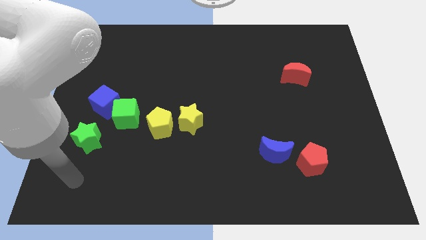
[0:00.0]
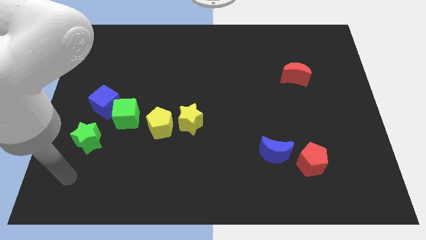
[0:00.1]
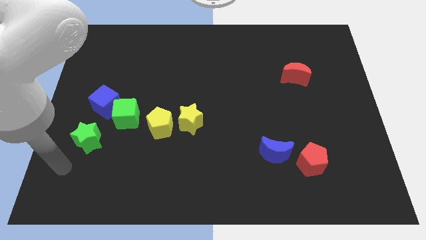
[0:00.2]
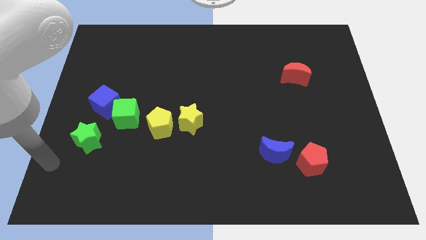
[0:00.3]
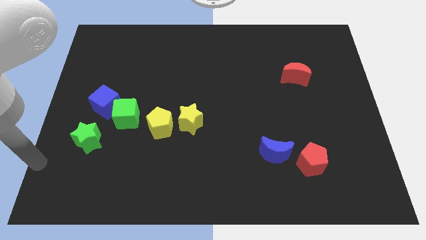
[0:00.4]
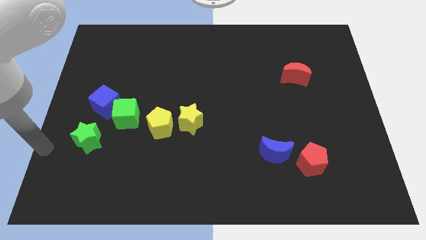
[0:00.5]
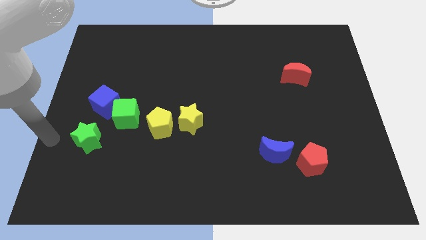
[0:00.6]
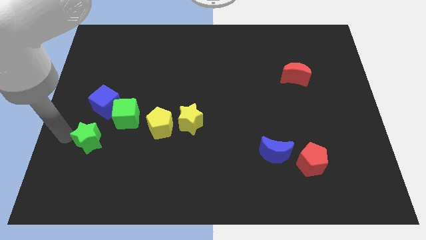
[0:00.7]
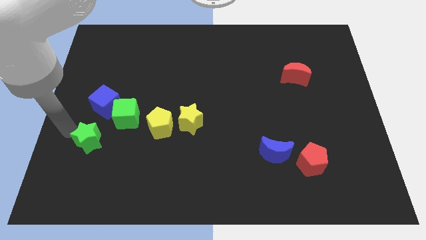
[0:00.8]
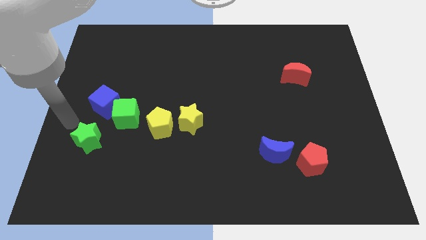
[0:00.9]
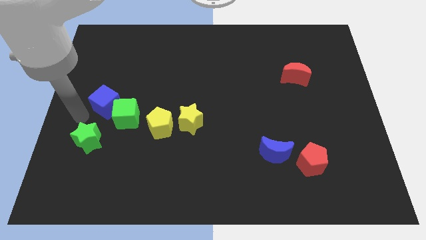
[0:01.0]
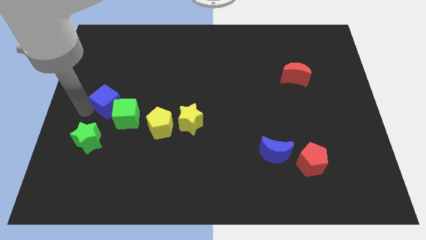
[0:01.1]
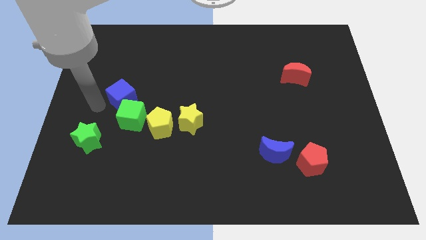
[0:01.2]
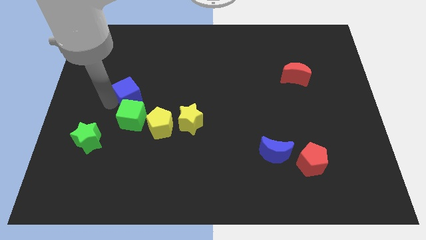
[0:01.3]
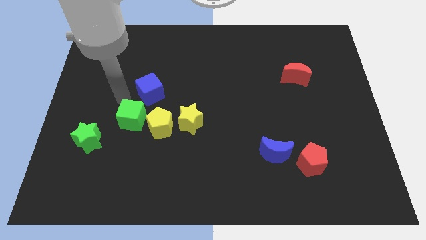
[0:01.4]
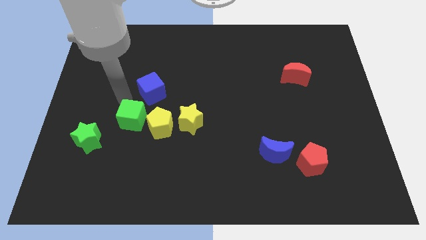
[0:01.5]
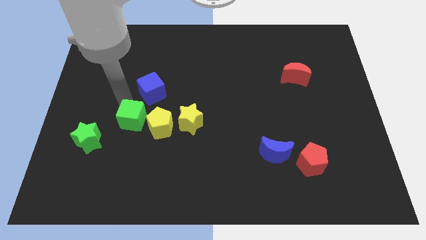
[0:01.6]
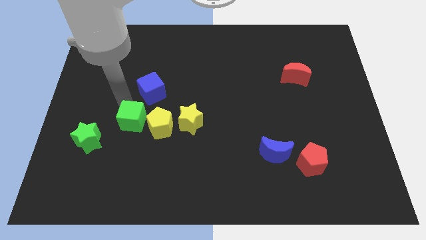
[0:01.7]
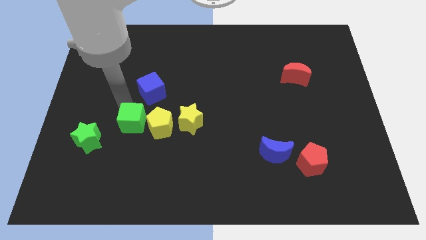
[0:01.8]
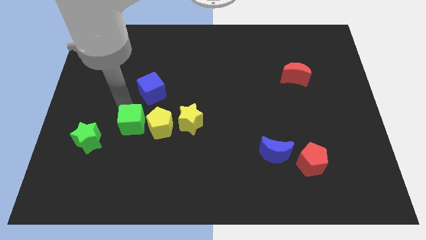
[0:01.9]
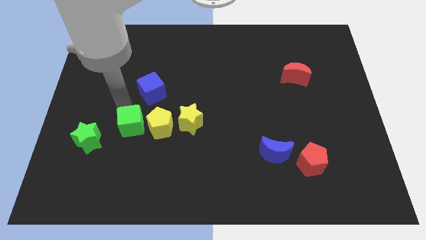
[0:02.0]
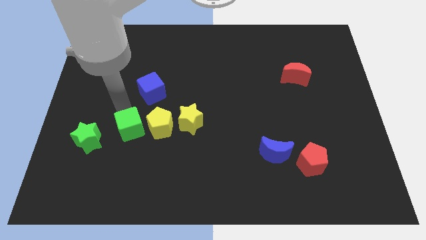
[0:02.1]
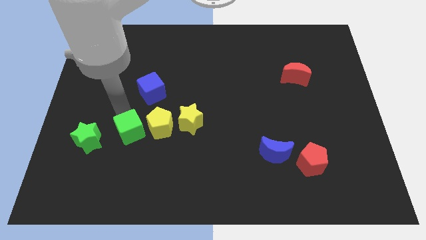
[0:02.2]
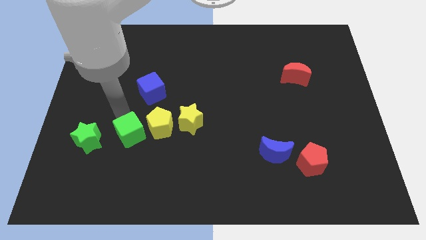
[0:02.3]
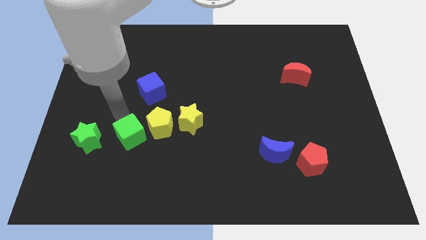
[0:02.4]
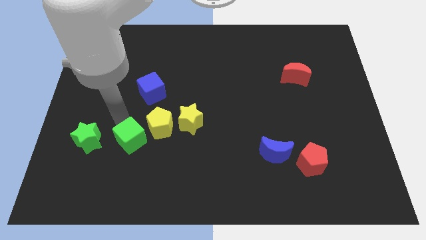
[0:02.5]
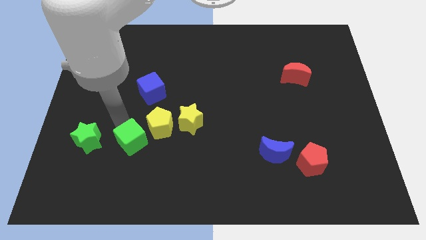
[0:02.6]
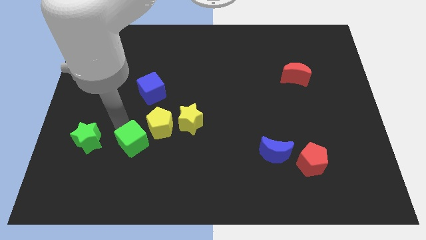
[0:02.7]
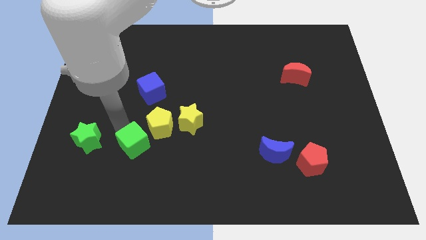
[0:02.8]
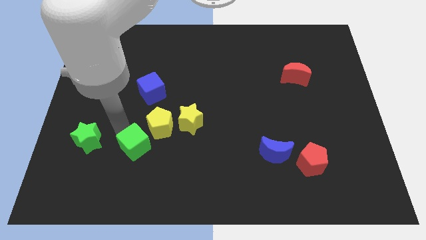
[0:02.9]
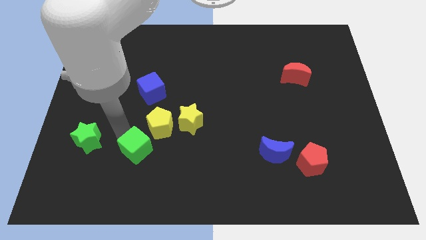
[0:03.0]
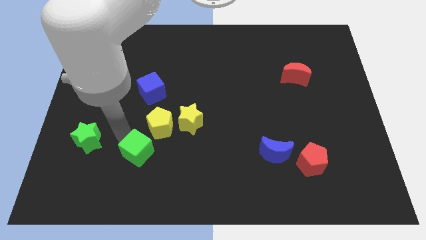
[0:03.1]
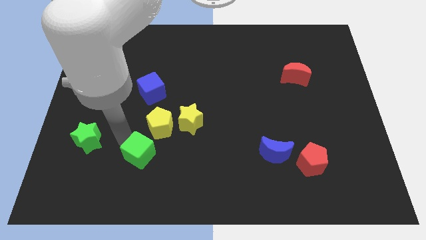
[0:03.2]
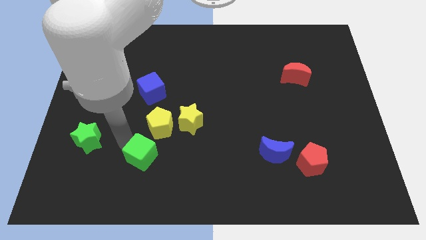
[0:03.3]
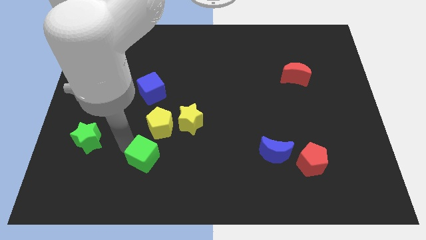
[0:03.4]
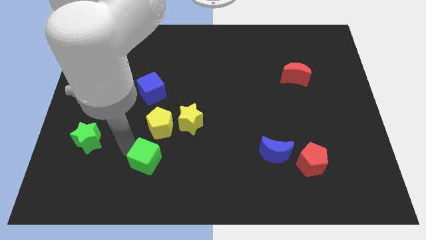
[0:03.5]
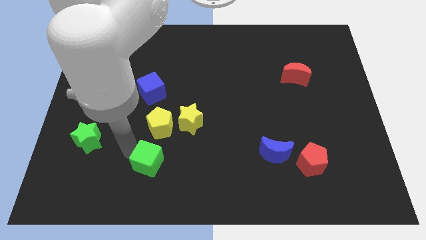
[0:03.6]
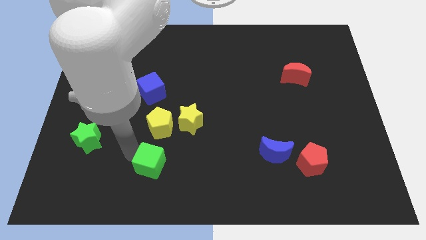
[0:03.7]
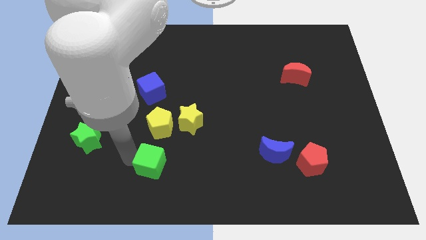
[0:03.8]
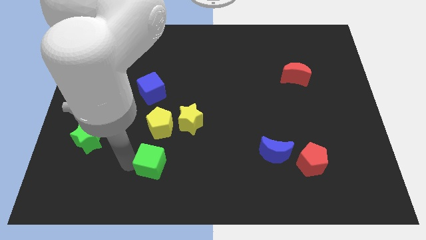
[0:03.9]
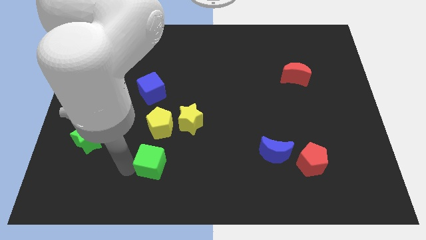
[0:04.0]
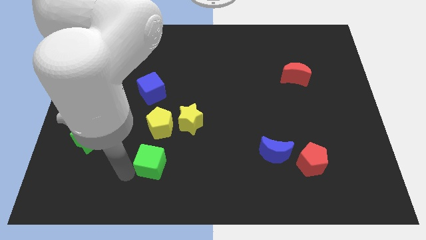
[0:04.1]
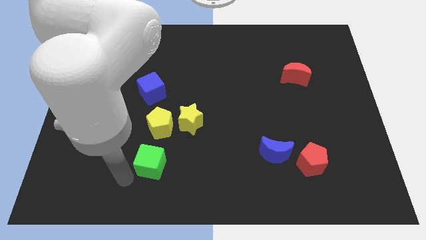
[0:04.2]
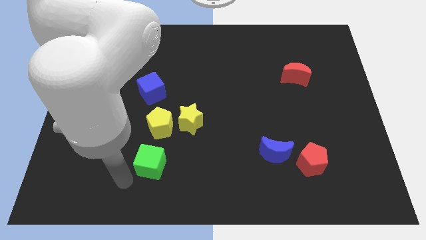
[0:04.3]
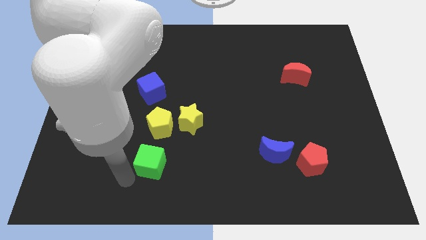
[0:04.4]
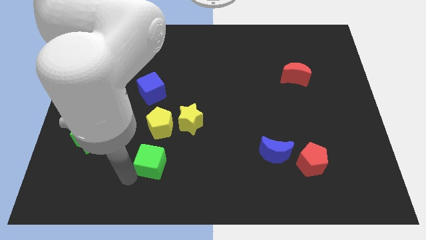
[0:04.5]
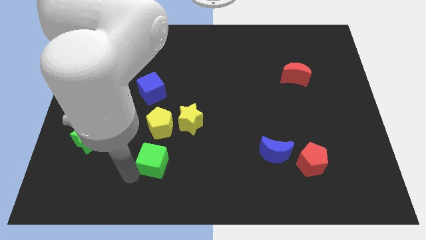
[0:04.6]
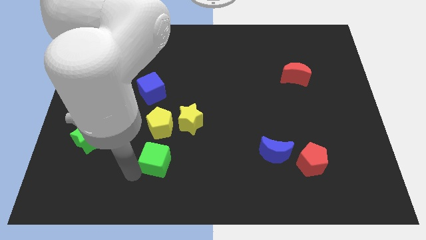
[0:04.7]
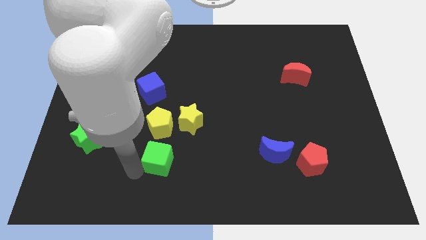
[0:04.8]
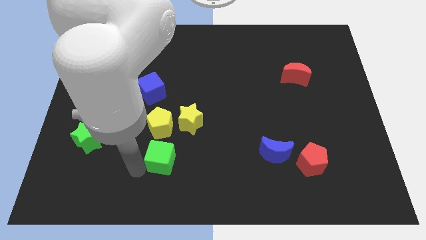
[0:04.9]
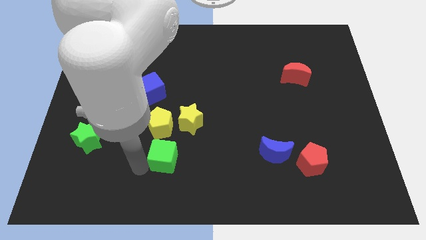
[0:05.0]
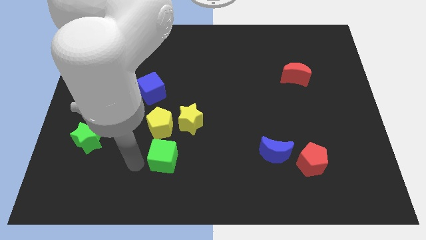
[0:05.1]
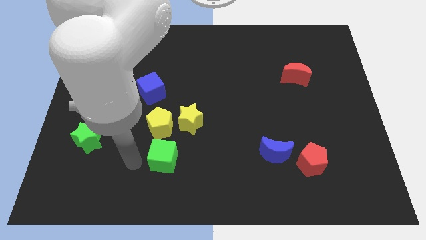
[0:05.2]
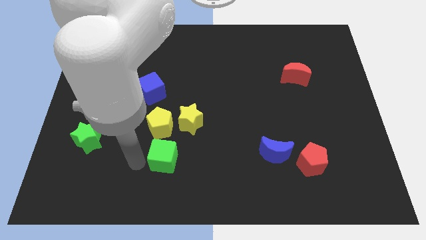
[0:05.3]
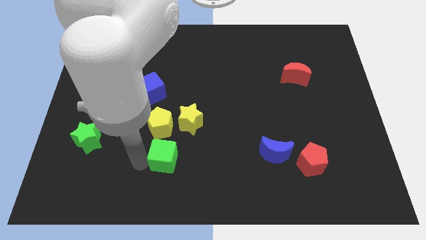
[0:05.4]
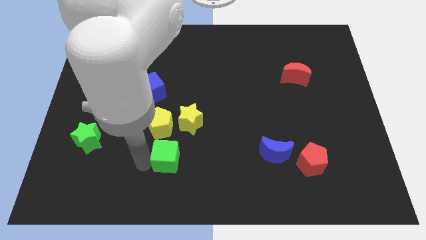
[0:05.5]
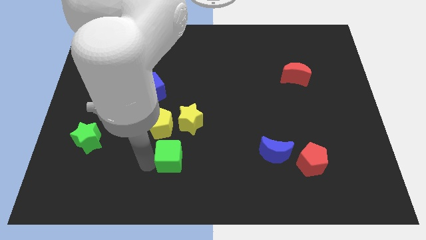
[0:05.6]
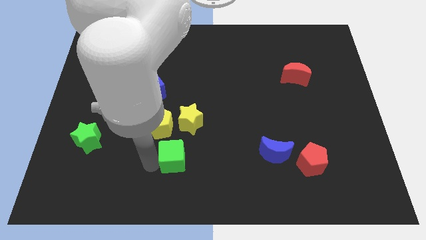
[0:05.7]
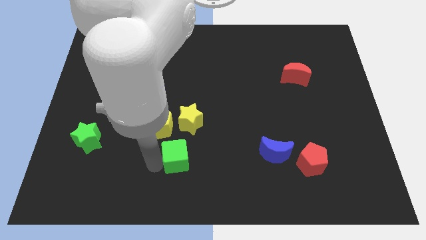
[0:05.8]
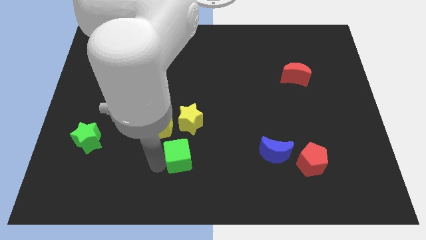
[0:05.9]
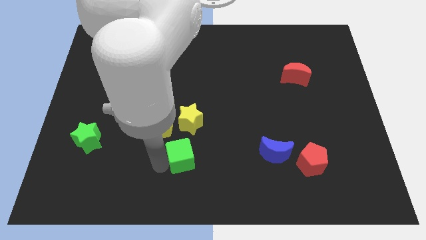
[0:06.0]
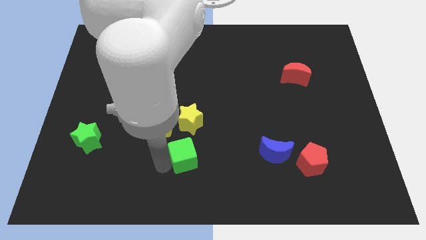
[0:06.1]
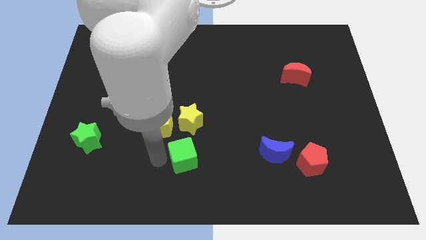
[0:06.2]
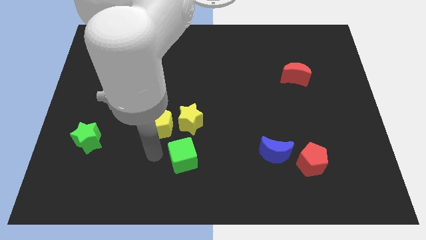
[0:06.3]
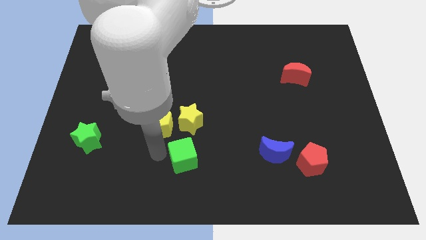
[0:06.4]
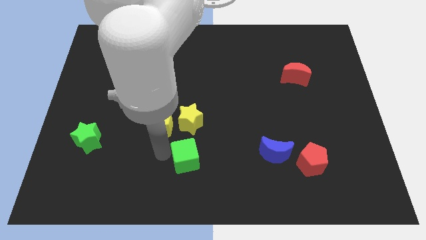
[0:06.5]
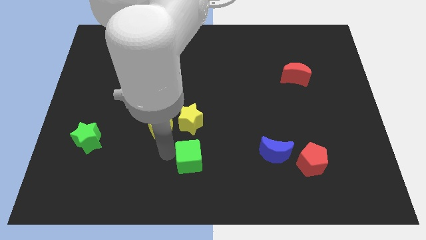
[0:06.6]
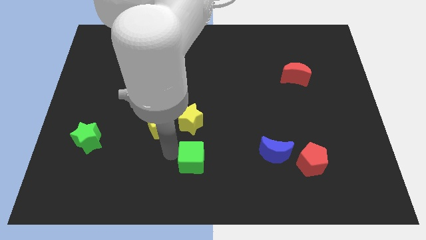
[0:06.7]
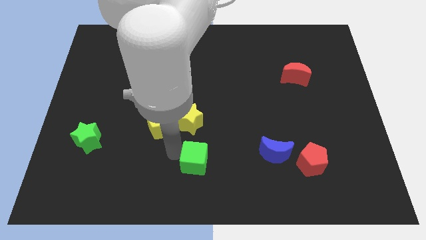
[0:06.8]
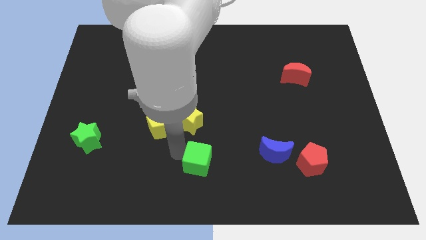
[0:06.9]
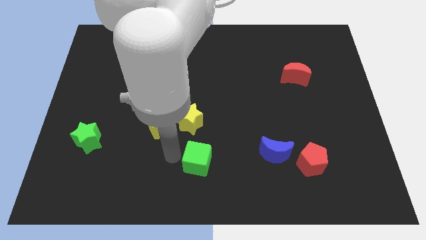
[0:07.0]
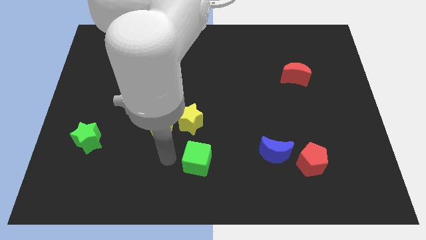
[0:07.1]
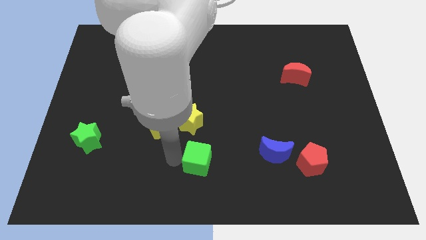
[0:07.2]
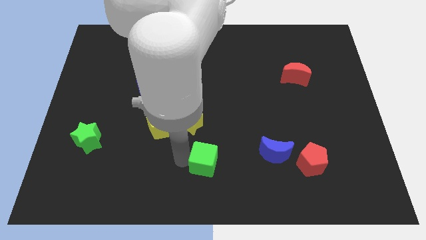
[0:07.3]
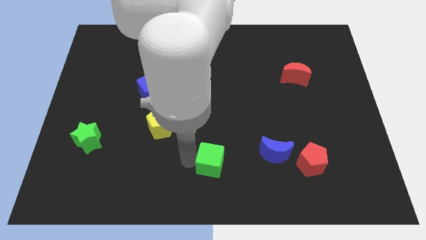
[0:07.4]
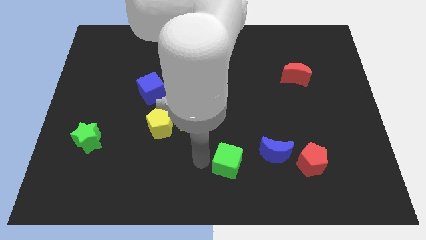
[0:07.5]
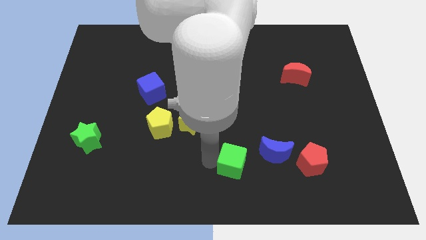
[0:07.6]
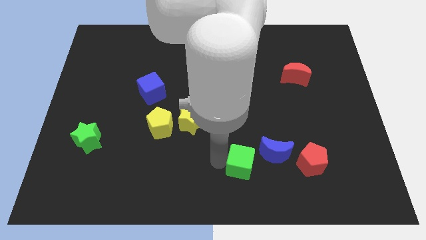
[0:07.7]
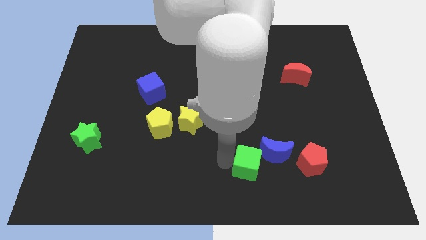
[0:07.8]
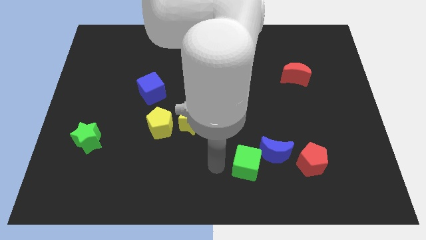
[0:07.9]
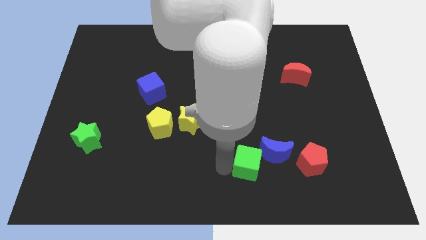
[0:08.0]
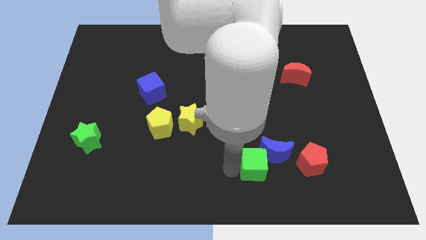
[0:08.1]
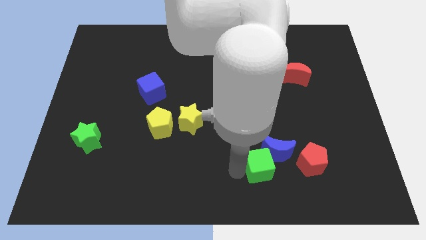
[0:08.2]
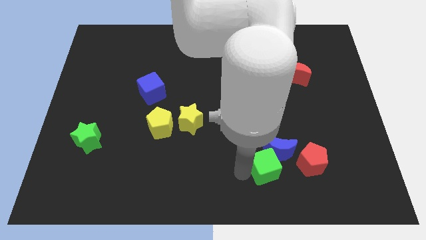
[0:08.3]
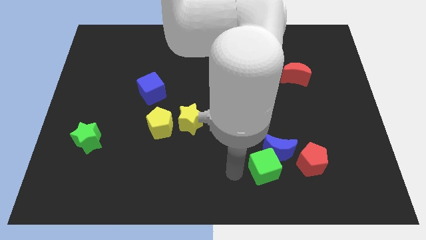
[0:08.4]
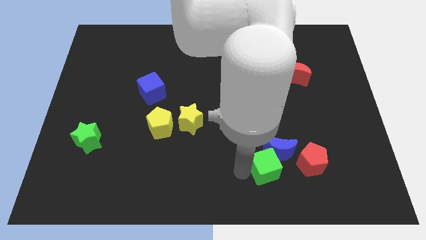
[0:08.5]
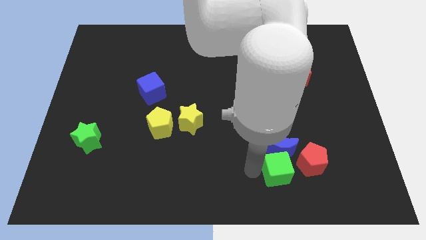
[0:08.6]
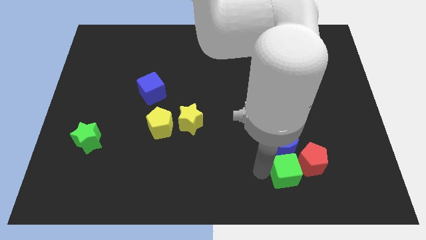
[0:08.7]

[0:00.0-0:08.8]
move the green cube to the red pentagon
